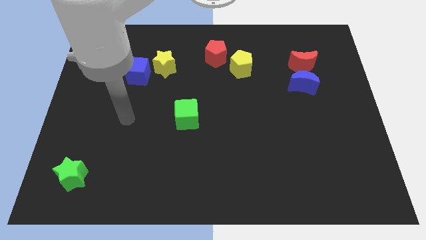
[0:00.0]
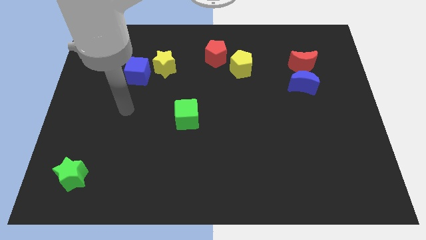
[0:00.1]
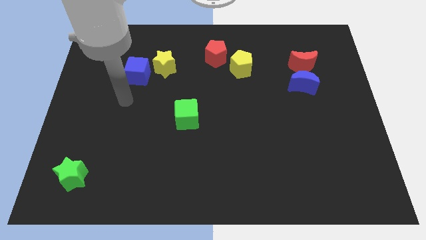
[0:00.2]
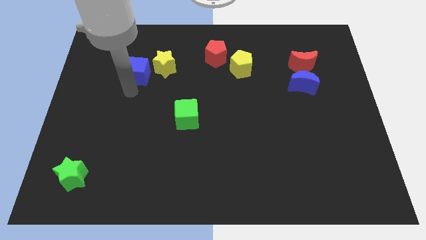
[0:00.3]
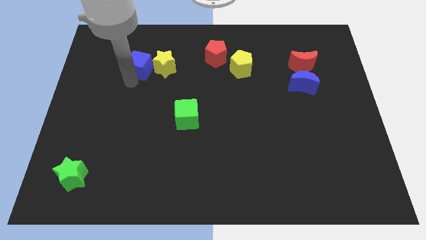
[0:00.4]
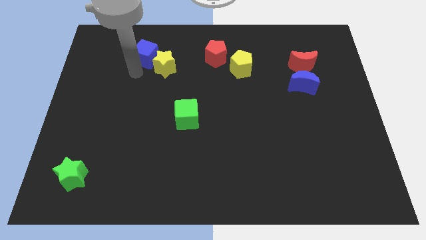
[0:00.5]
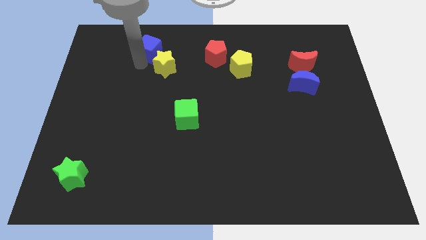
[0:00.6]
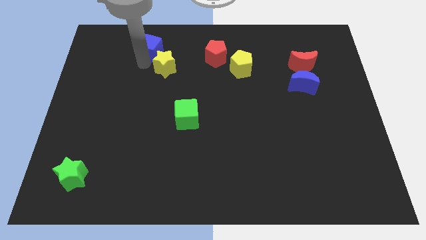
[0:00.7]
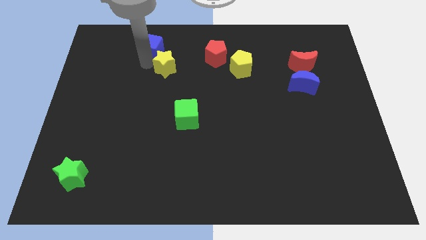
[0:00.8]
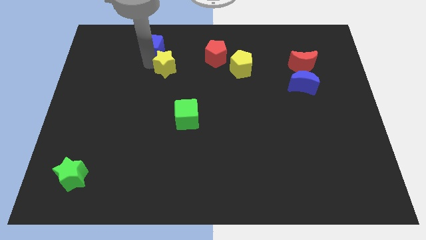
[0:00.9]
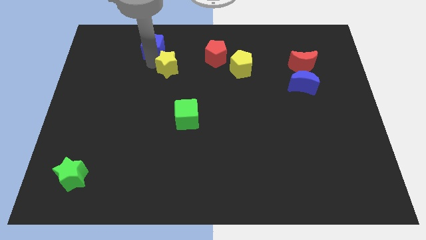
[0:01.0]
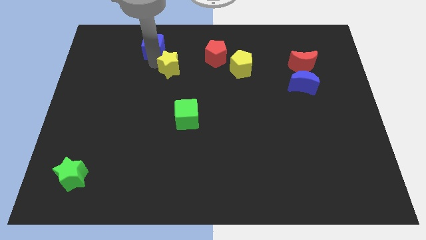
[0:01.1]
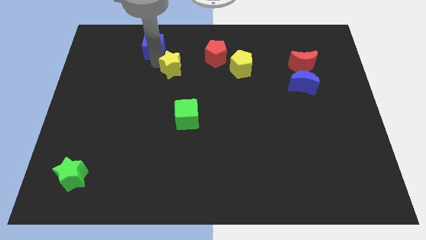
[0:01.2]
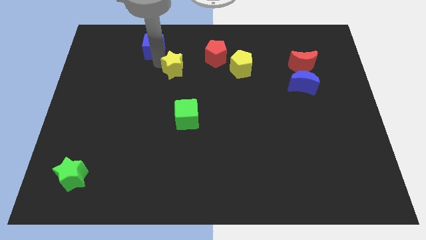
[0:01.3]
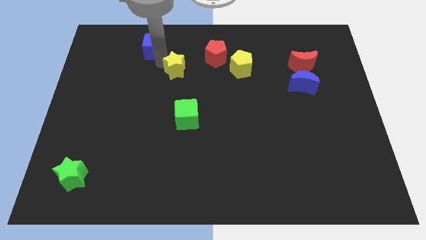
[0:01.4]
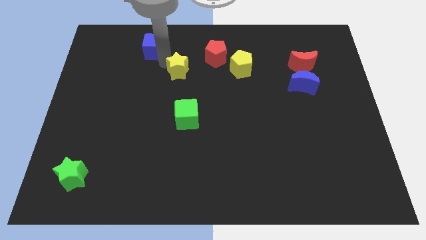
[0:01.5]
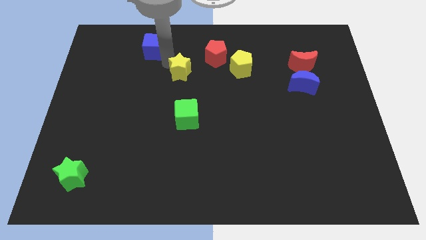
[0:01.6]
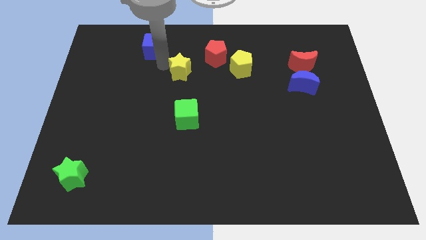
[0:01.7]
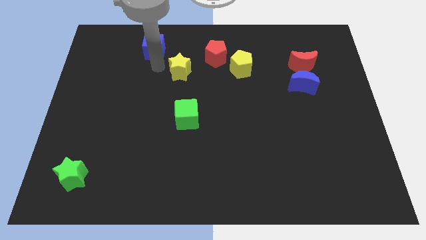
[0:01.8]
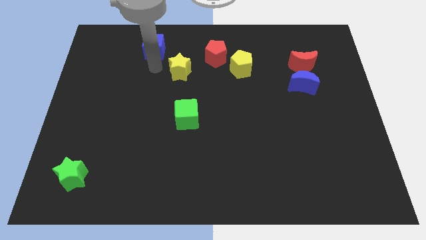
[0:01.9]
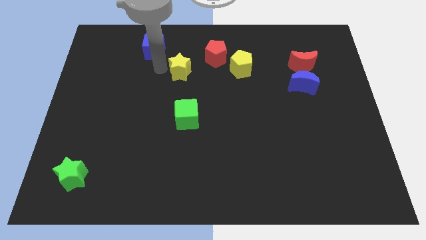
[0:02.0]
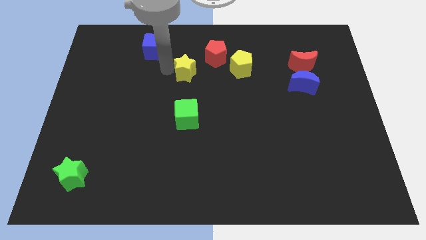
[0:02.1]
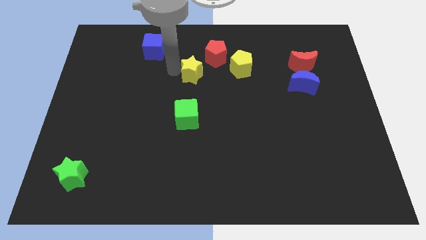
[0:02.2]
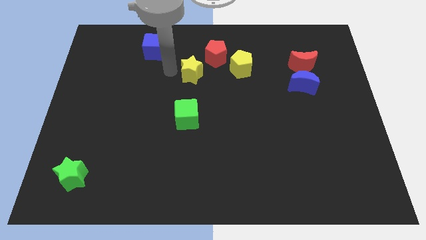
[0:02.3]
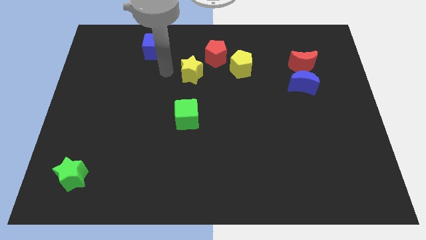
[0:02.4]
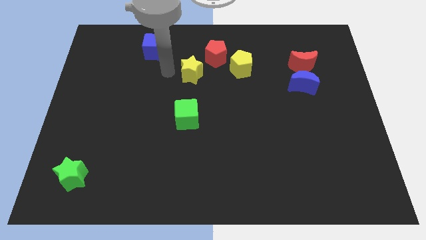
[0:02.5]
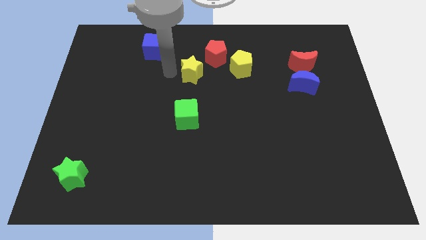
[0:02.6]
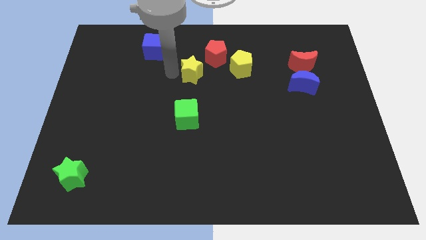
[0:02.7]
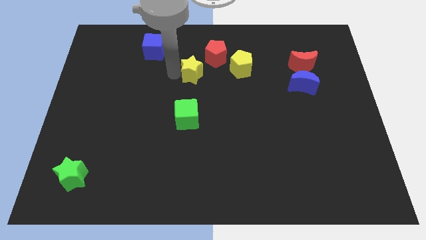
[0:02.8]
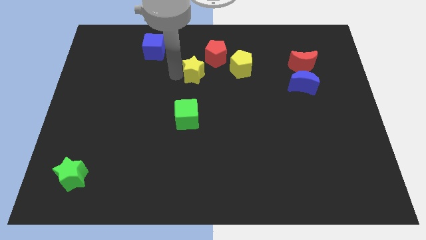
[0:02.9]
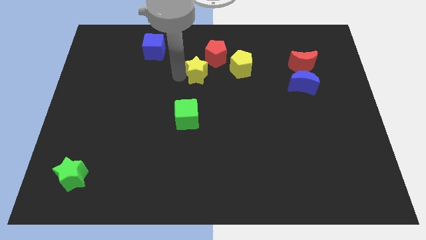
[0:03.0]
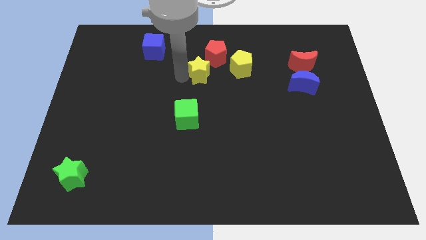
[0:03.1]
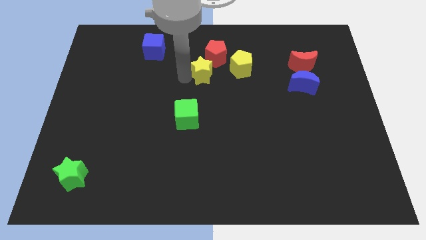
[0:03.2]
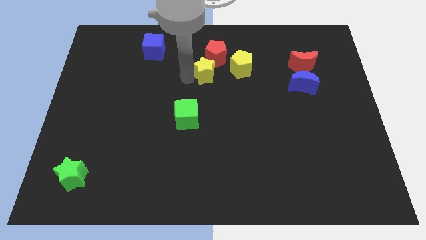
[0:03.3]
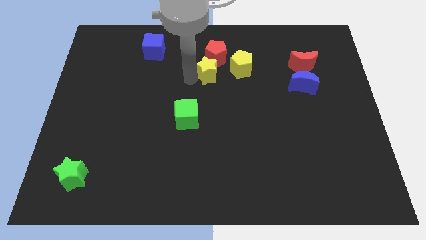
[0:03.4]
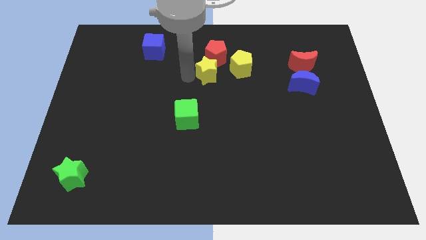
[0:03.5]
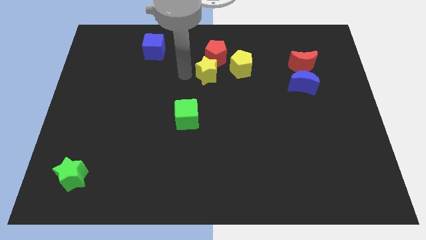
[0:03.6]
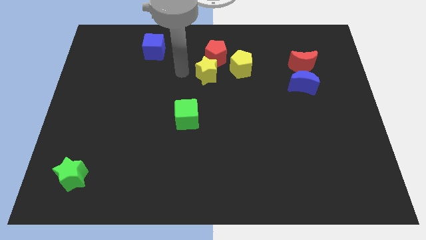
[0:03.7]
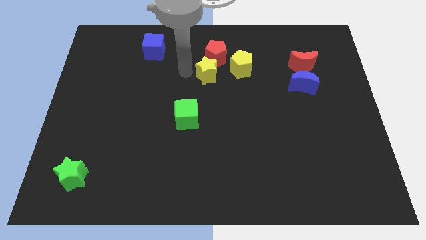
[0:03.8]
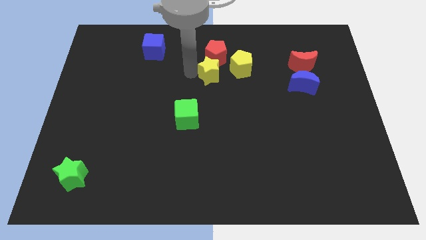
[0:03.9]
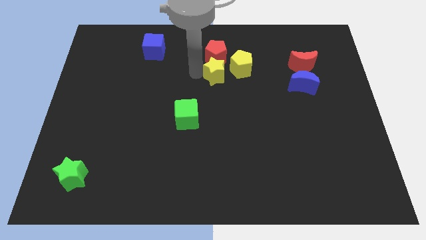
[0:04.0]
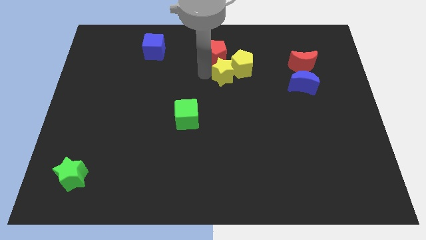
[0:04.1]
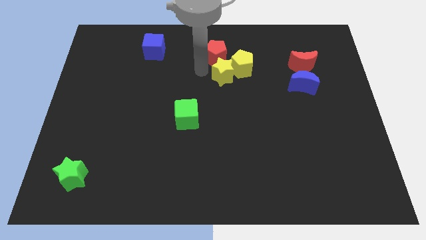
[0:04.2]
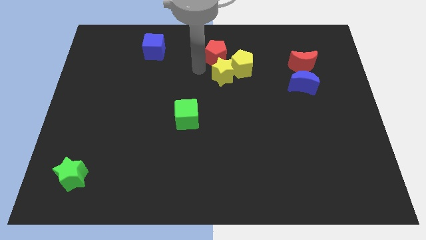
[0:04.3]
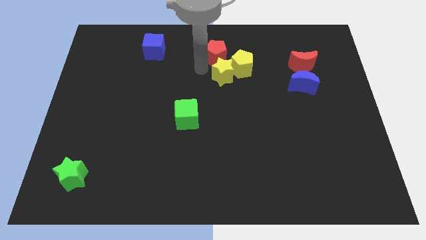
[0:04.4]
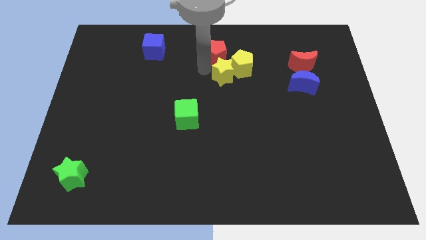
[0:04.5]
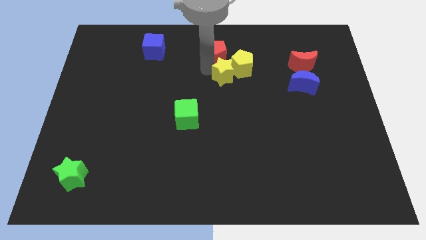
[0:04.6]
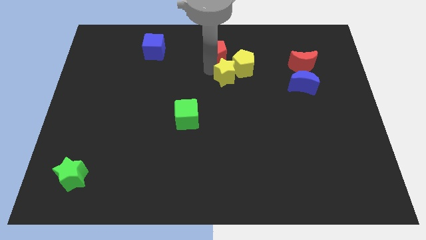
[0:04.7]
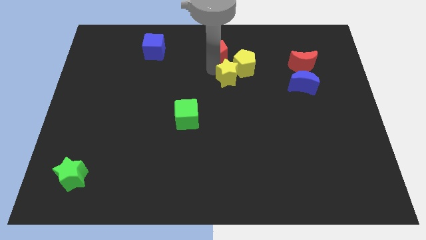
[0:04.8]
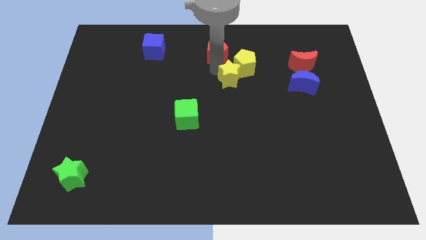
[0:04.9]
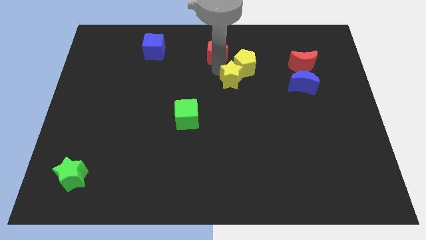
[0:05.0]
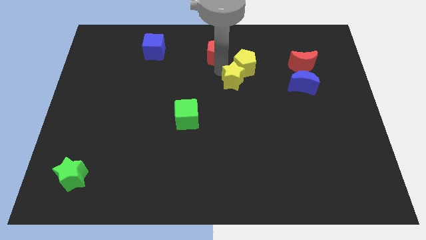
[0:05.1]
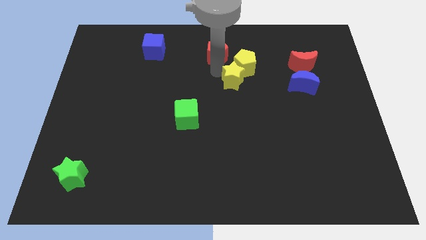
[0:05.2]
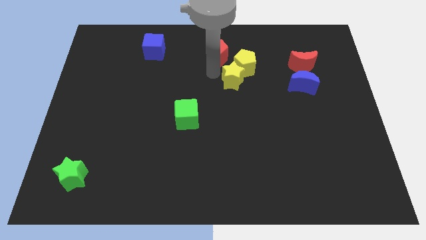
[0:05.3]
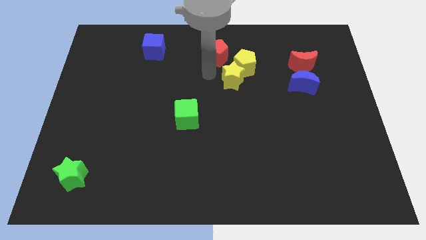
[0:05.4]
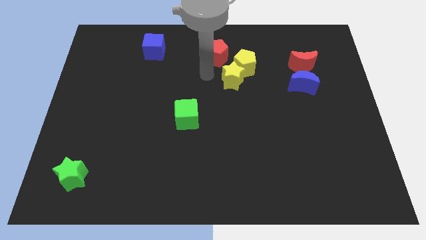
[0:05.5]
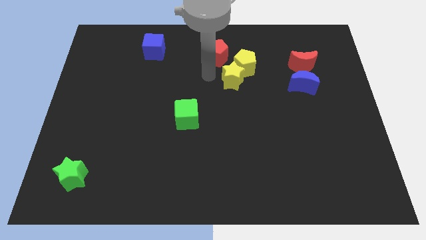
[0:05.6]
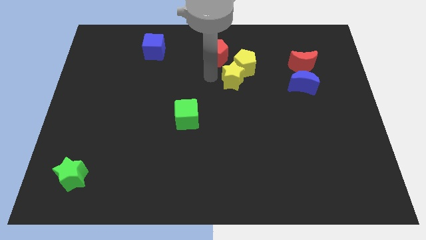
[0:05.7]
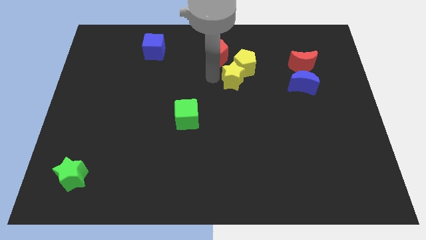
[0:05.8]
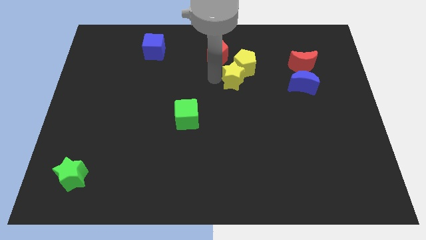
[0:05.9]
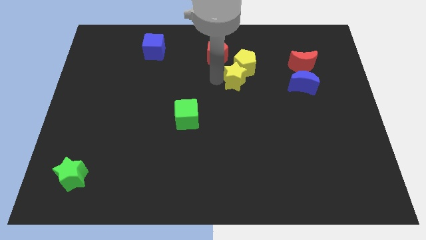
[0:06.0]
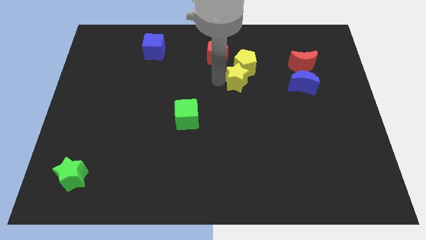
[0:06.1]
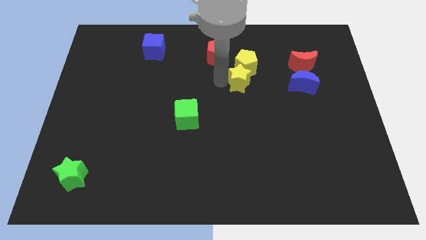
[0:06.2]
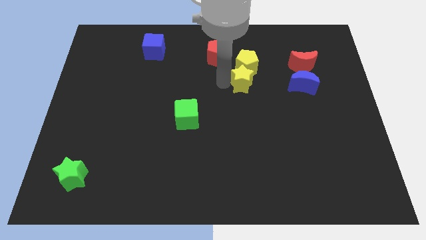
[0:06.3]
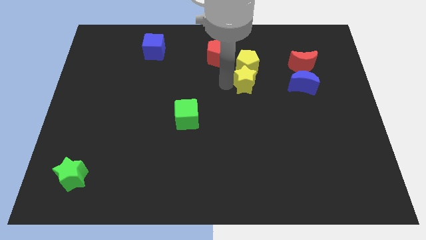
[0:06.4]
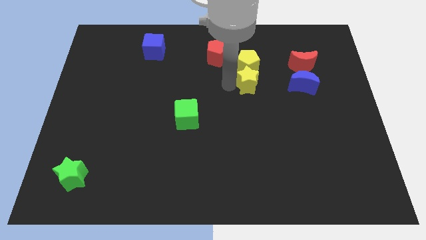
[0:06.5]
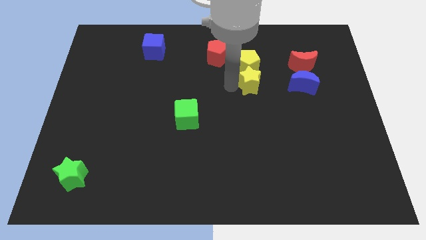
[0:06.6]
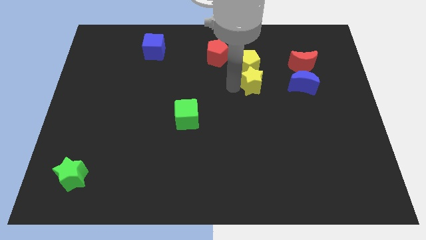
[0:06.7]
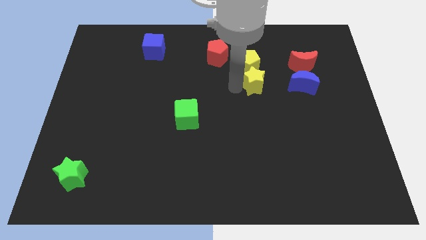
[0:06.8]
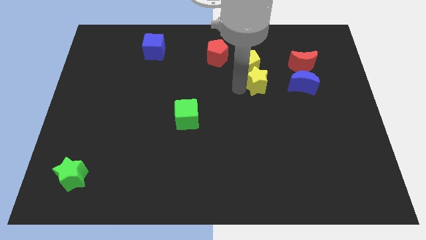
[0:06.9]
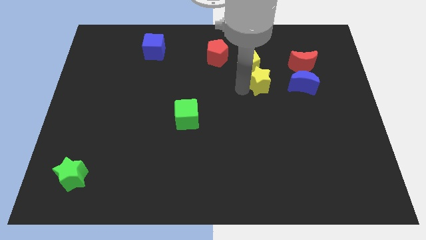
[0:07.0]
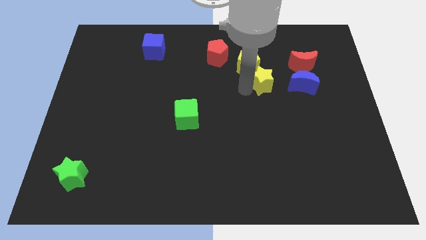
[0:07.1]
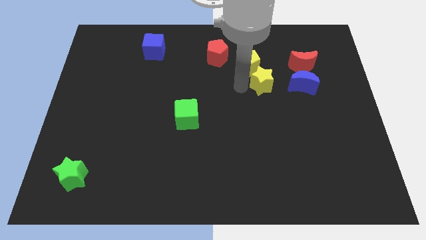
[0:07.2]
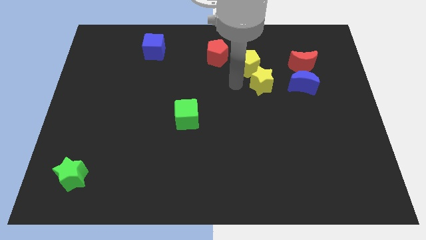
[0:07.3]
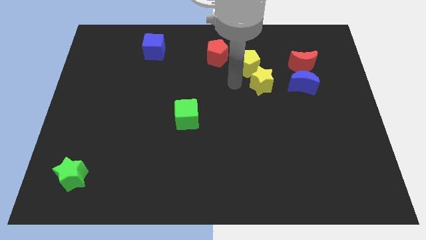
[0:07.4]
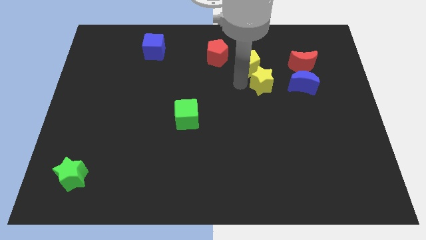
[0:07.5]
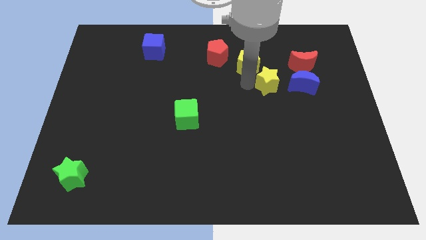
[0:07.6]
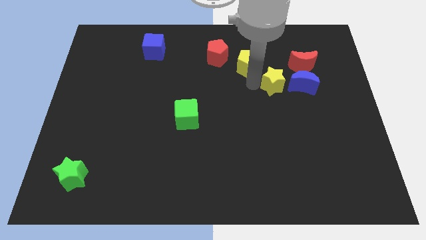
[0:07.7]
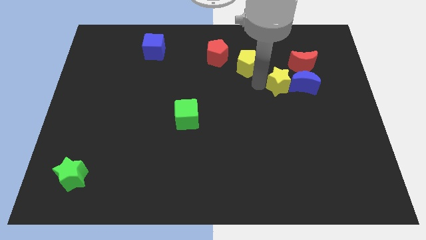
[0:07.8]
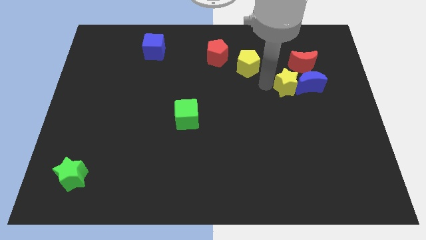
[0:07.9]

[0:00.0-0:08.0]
push the yellow star to the blue moon
